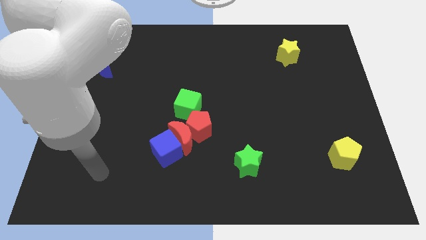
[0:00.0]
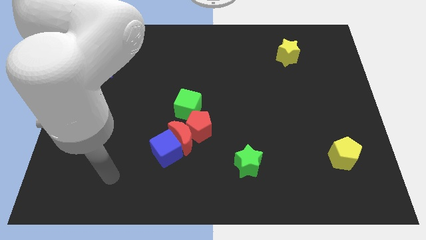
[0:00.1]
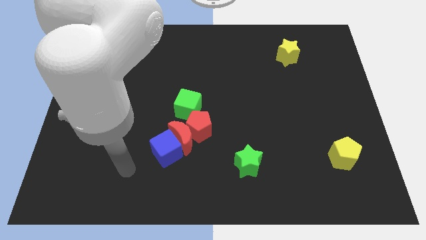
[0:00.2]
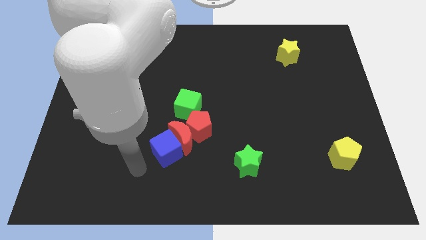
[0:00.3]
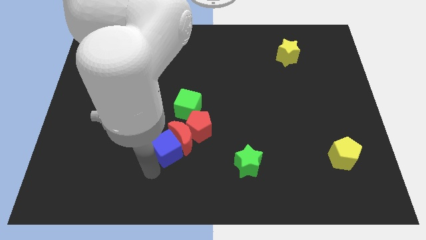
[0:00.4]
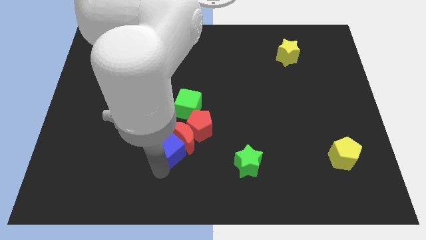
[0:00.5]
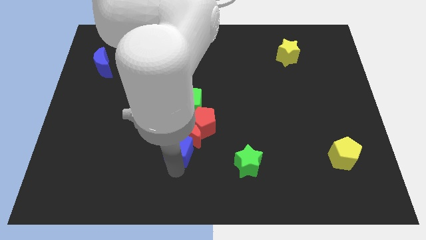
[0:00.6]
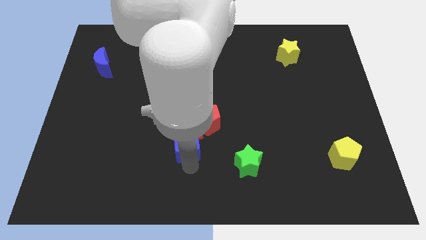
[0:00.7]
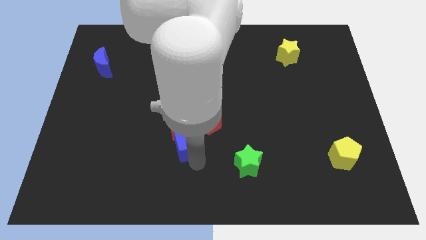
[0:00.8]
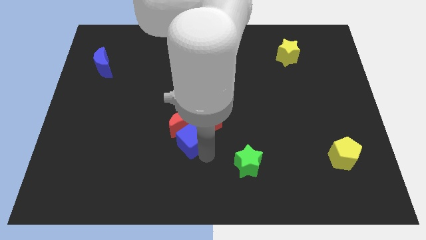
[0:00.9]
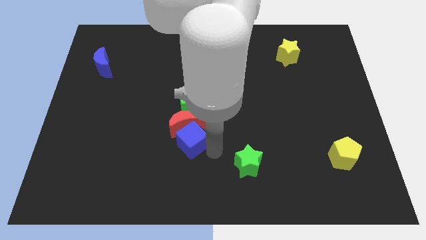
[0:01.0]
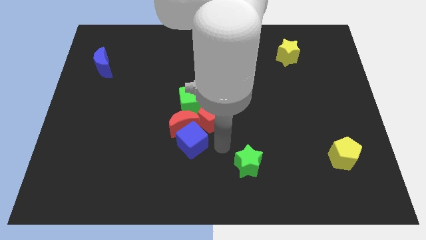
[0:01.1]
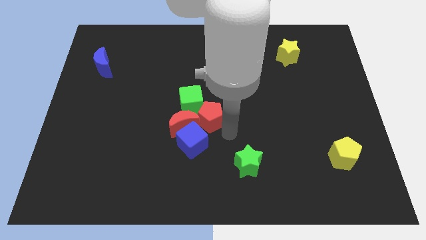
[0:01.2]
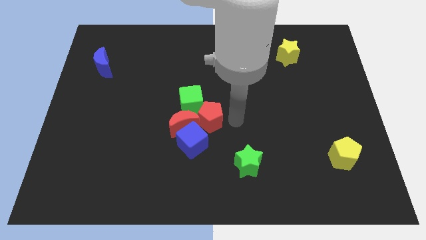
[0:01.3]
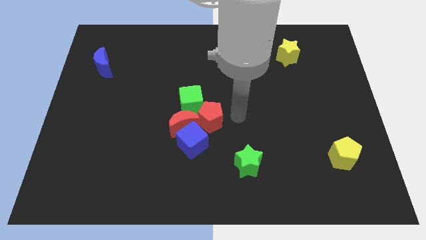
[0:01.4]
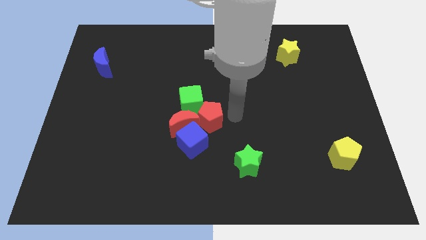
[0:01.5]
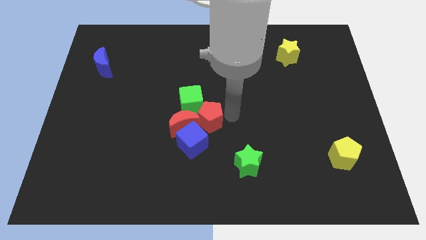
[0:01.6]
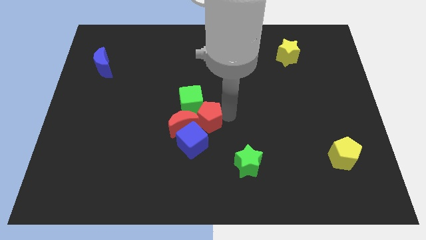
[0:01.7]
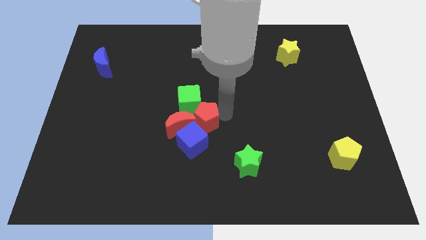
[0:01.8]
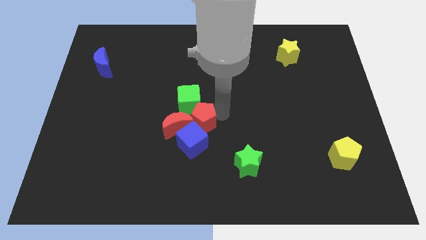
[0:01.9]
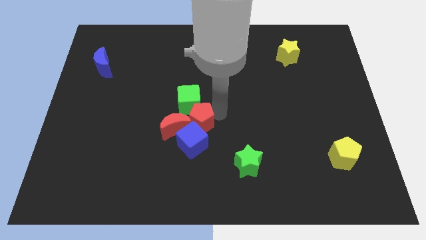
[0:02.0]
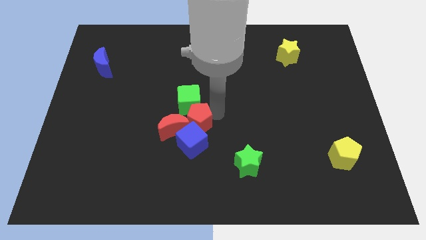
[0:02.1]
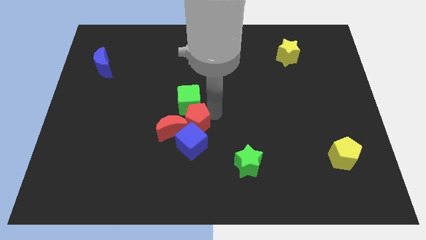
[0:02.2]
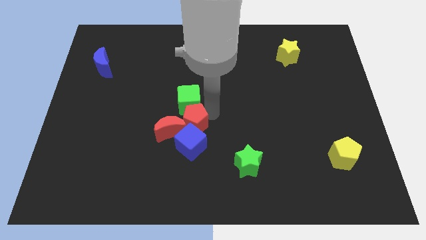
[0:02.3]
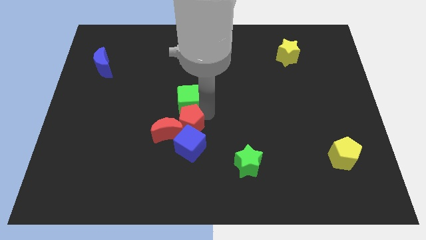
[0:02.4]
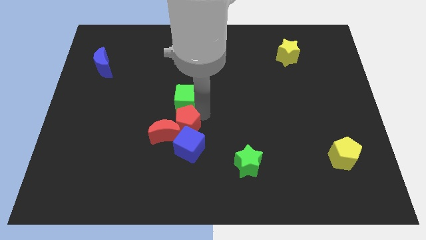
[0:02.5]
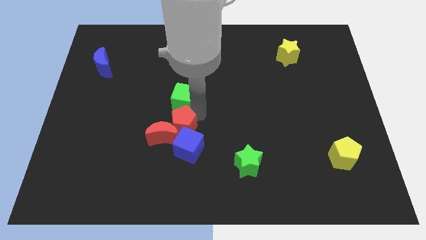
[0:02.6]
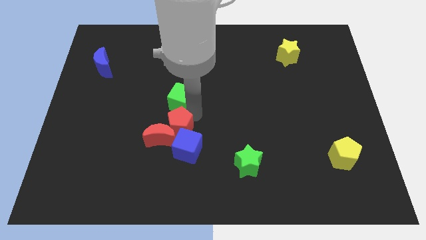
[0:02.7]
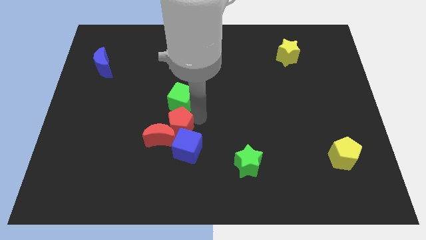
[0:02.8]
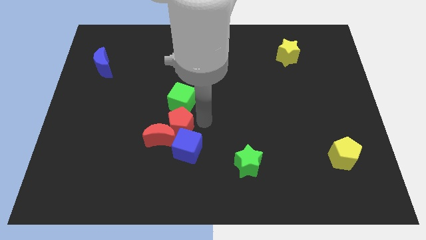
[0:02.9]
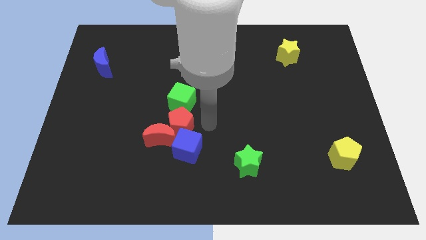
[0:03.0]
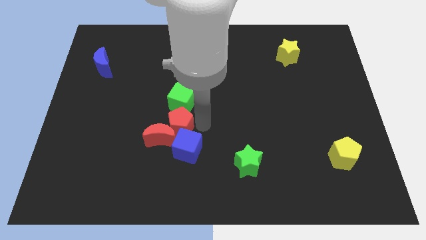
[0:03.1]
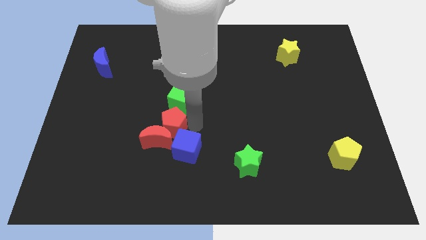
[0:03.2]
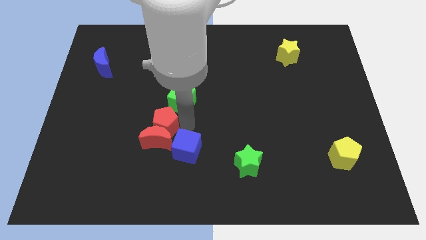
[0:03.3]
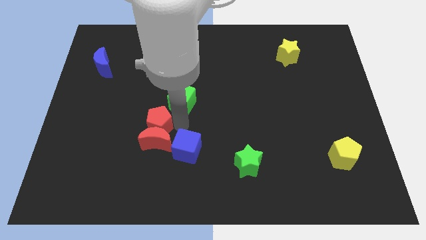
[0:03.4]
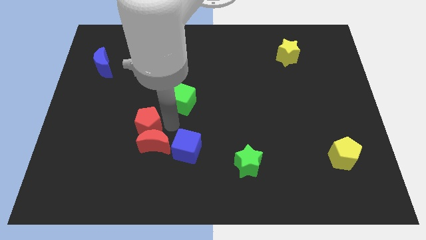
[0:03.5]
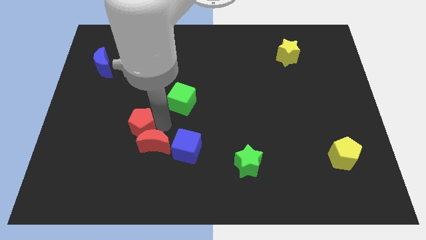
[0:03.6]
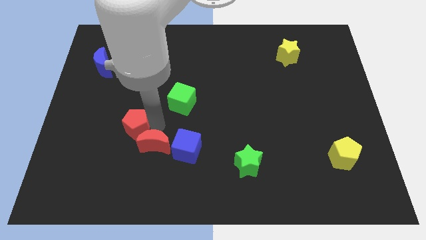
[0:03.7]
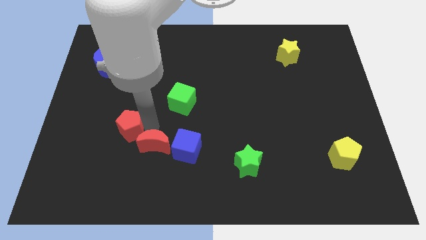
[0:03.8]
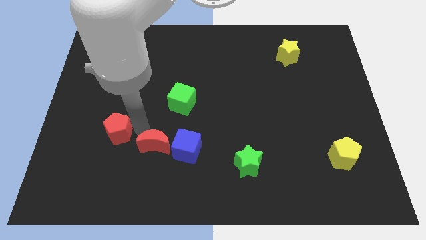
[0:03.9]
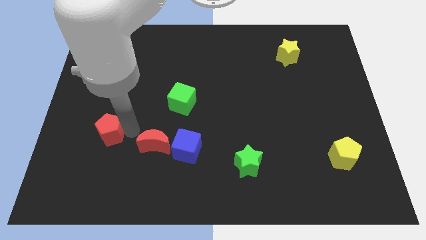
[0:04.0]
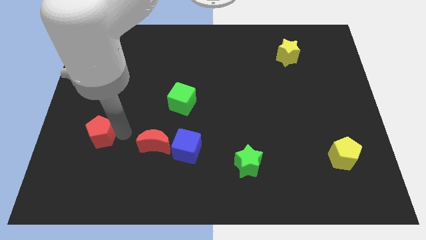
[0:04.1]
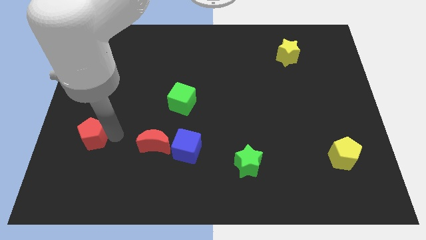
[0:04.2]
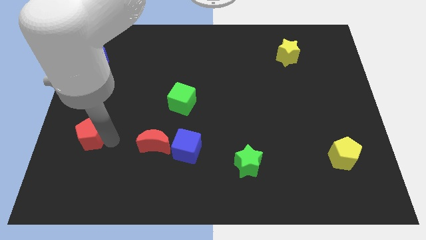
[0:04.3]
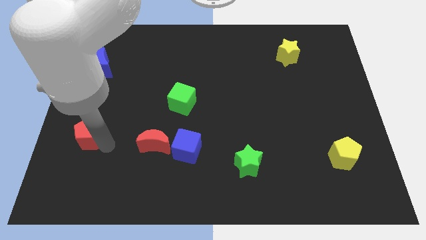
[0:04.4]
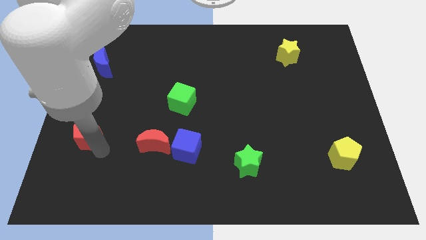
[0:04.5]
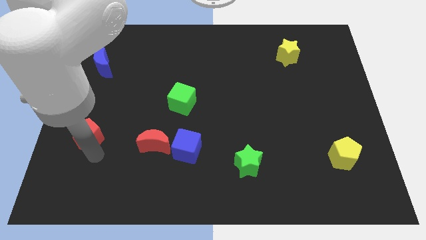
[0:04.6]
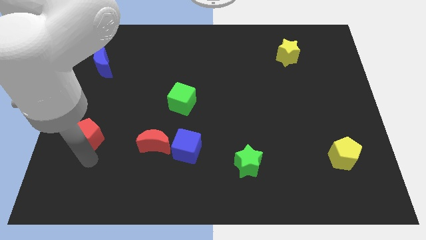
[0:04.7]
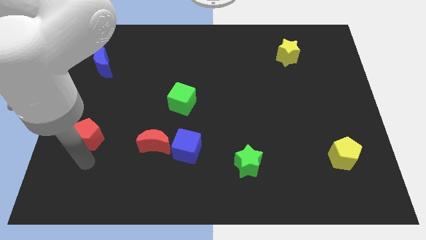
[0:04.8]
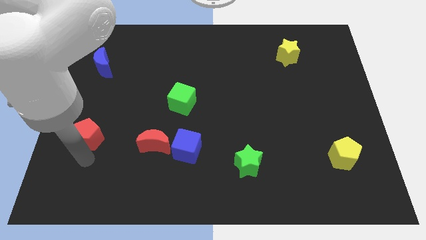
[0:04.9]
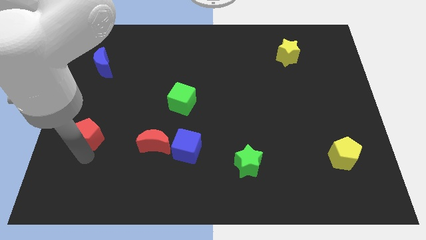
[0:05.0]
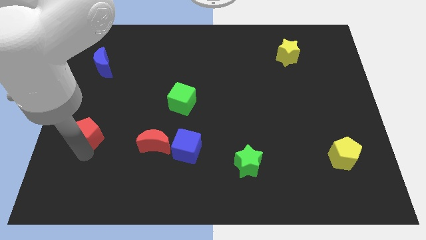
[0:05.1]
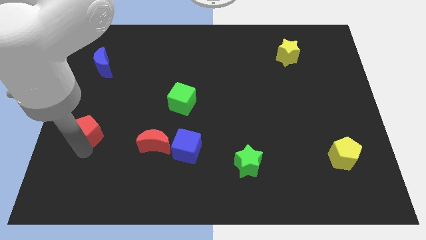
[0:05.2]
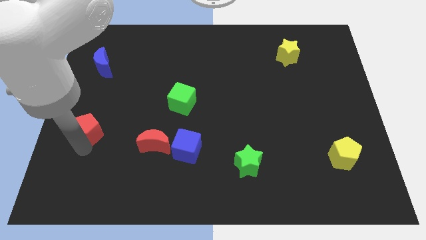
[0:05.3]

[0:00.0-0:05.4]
slide the red pentagon to the center left

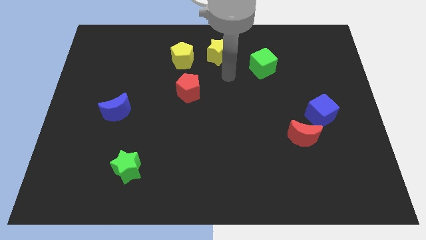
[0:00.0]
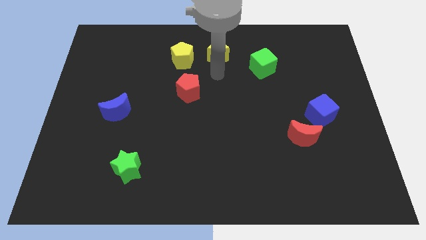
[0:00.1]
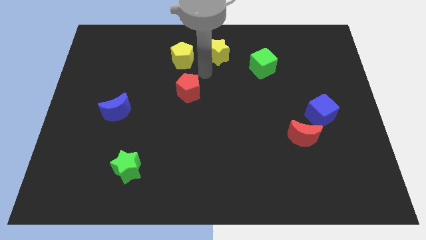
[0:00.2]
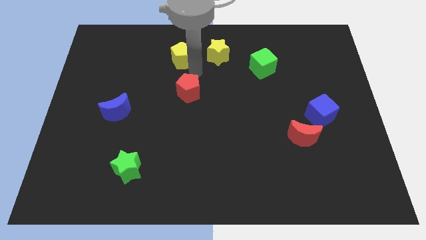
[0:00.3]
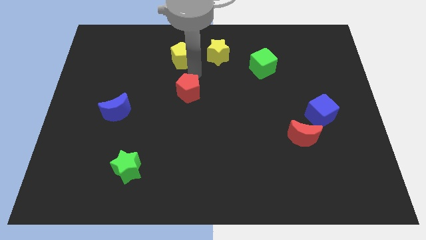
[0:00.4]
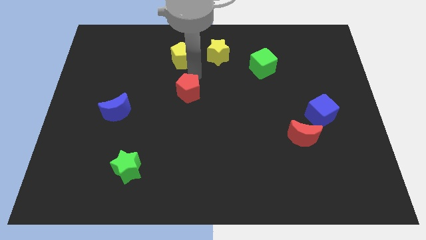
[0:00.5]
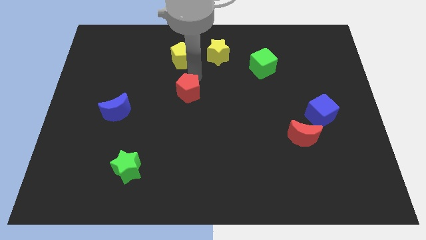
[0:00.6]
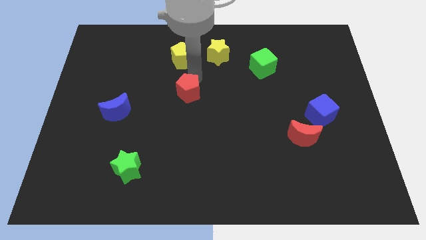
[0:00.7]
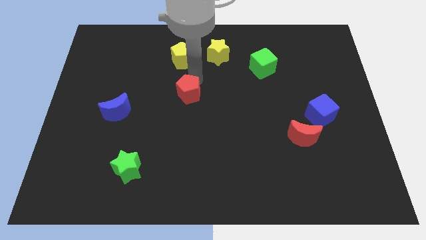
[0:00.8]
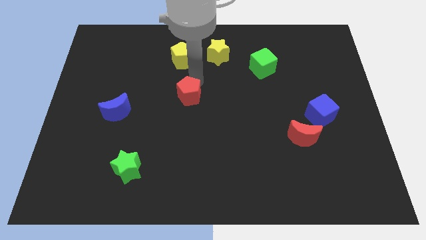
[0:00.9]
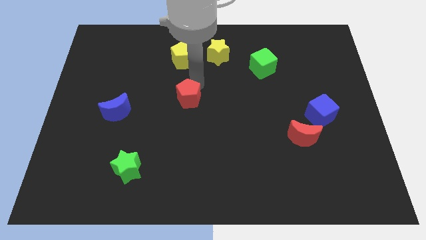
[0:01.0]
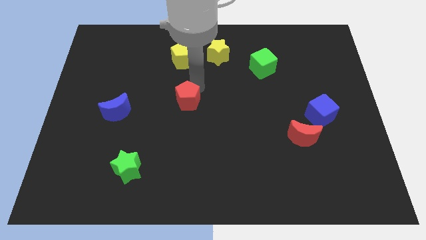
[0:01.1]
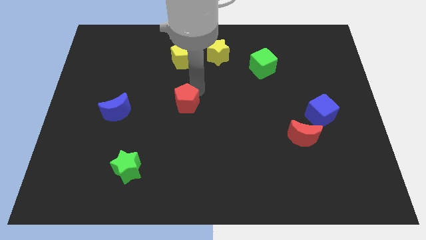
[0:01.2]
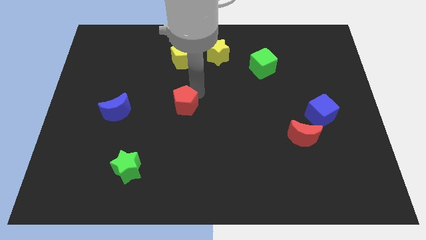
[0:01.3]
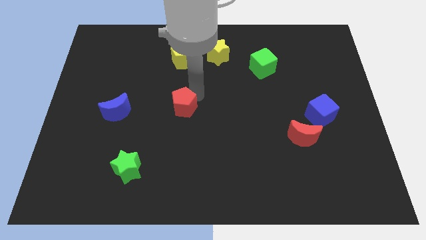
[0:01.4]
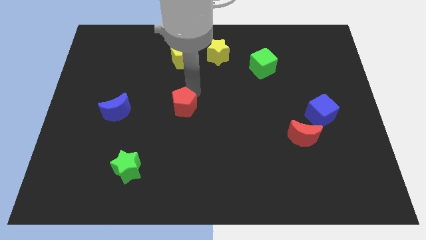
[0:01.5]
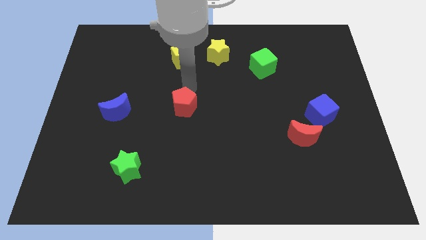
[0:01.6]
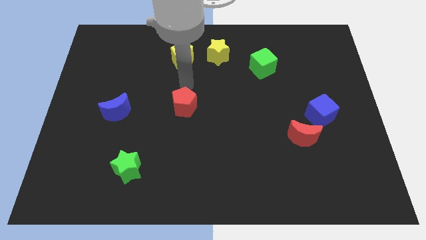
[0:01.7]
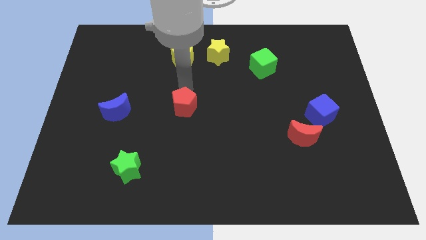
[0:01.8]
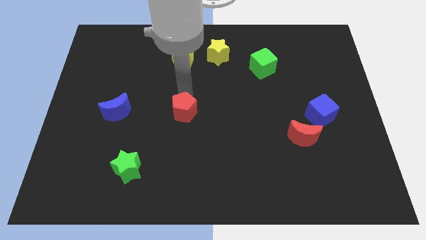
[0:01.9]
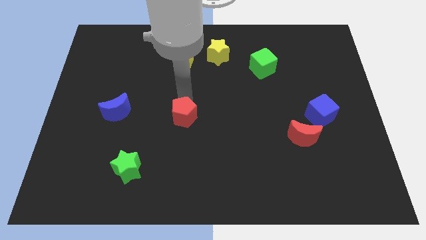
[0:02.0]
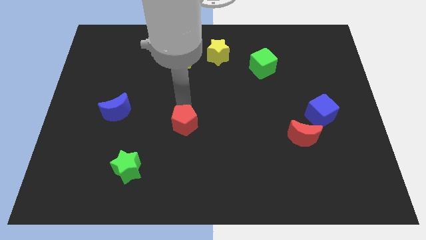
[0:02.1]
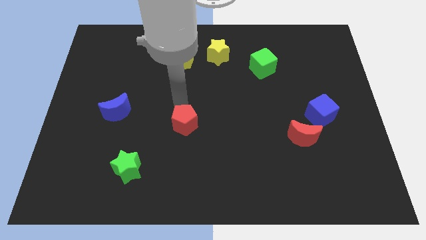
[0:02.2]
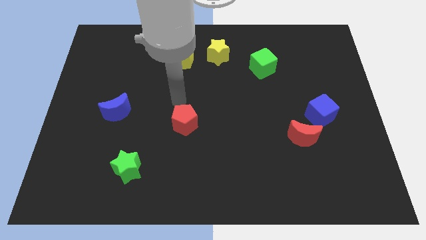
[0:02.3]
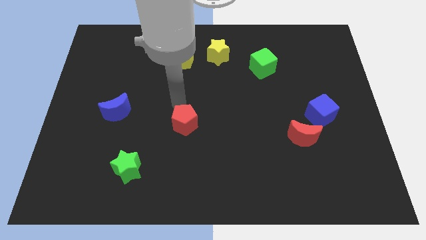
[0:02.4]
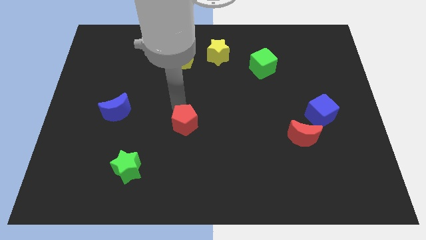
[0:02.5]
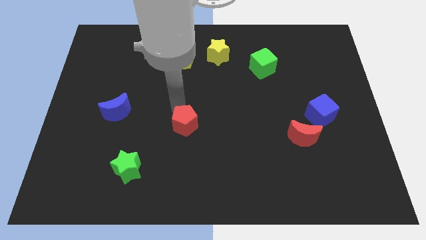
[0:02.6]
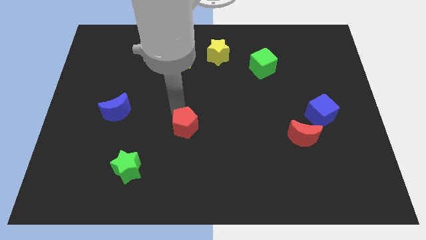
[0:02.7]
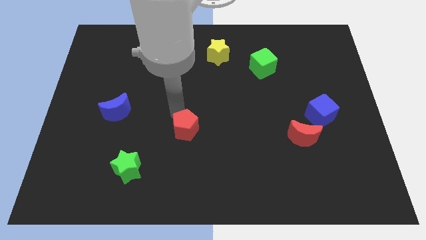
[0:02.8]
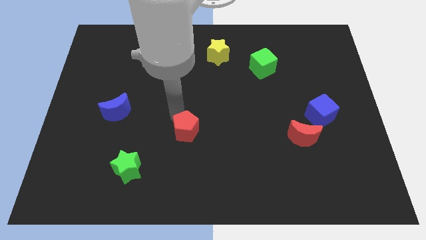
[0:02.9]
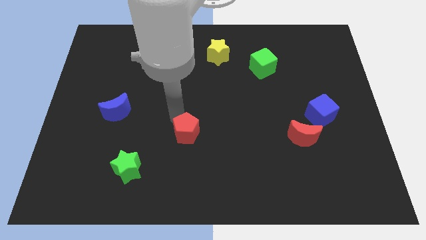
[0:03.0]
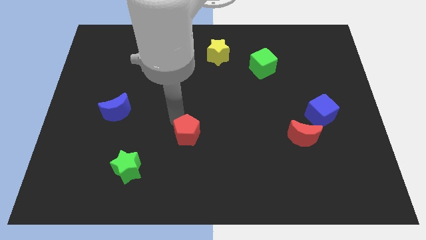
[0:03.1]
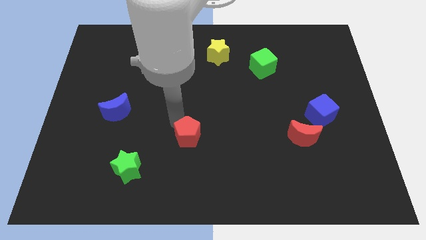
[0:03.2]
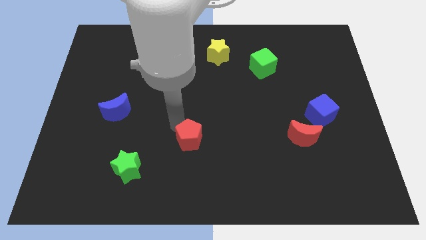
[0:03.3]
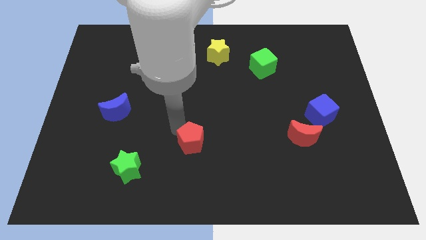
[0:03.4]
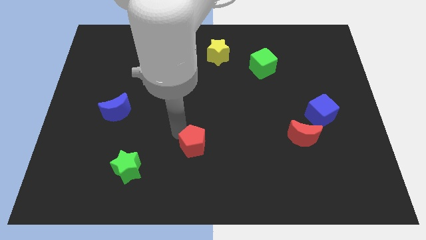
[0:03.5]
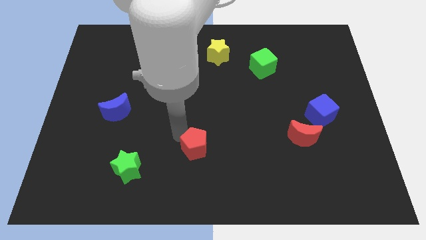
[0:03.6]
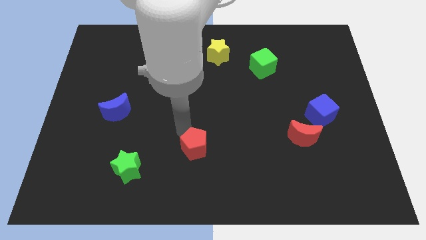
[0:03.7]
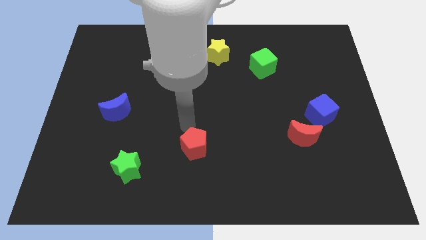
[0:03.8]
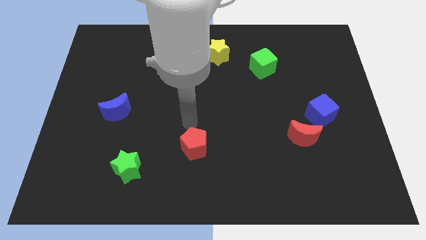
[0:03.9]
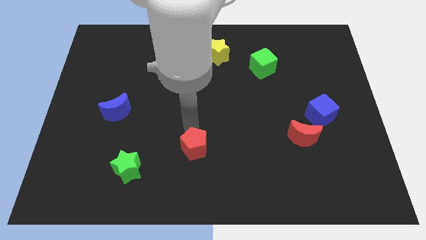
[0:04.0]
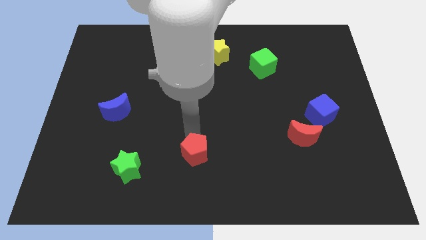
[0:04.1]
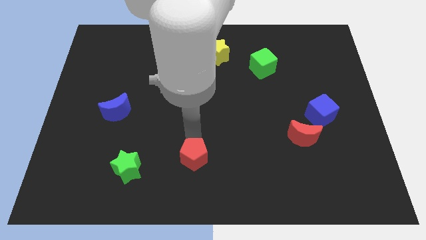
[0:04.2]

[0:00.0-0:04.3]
move the red pentagon to the bottom side
